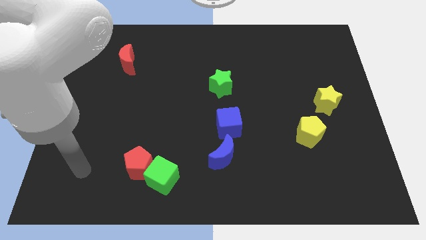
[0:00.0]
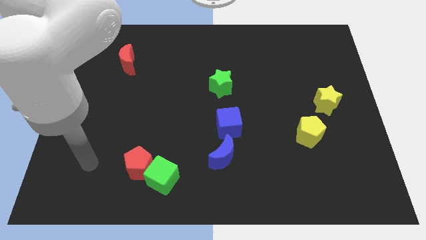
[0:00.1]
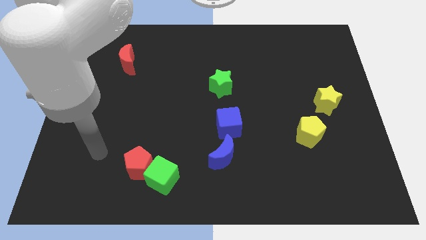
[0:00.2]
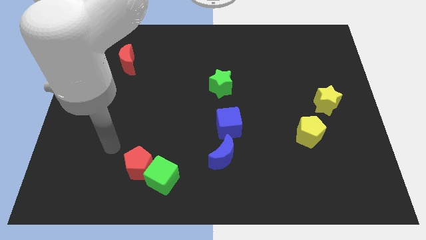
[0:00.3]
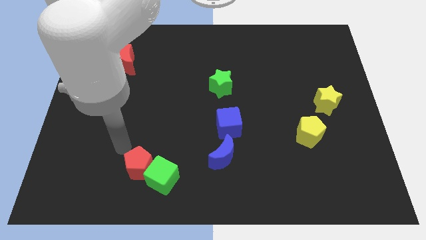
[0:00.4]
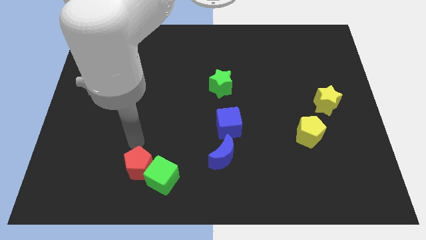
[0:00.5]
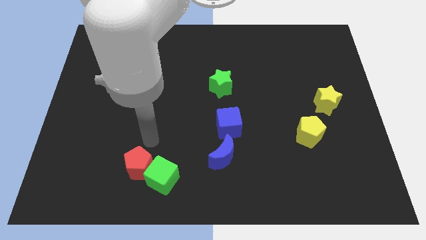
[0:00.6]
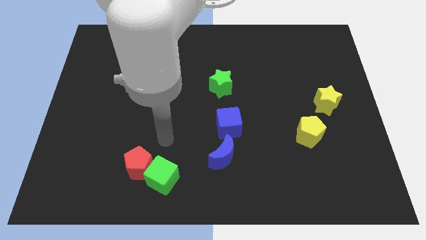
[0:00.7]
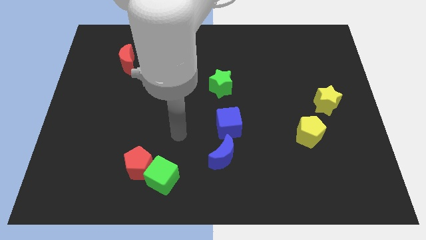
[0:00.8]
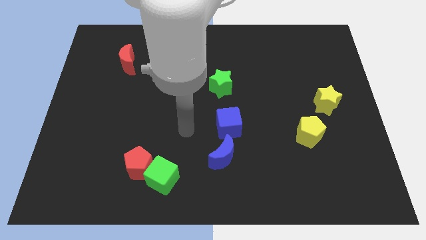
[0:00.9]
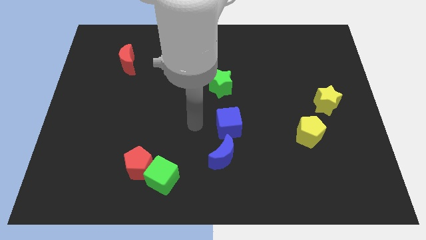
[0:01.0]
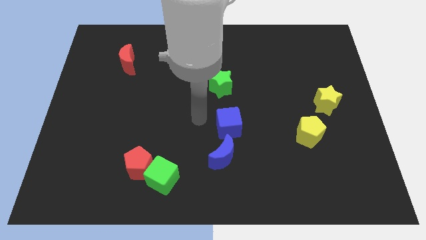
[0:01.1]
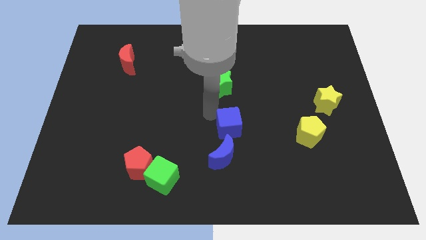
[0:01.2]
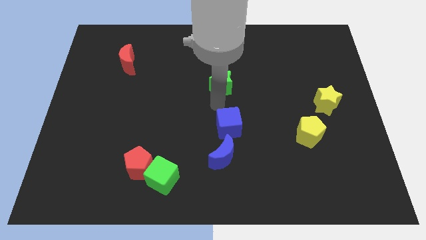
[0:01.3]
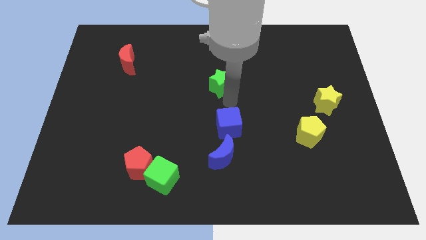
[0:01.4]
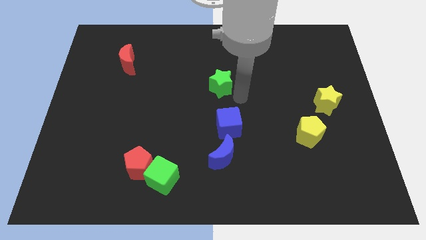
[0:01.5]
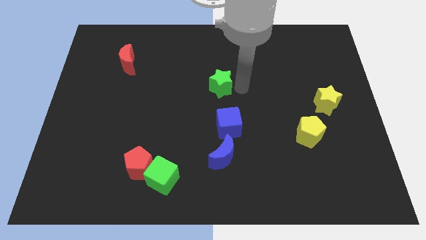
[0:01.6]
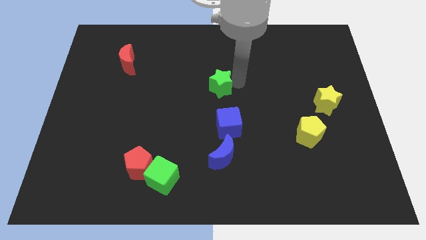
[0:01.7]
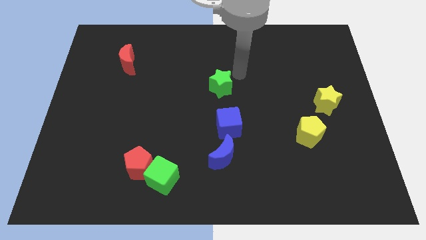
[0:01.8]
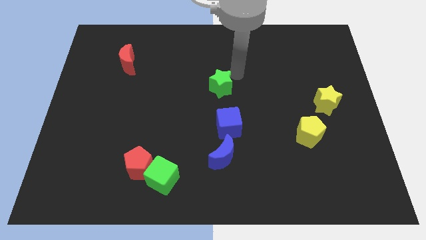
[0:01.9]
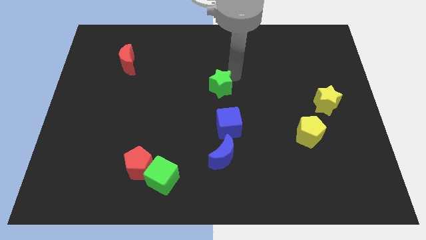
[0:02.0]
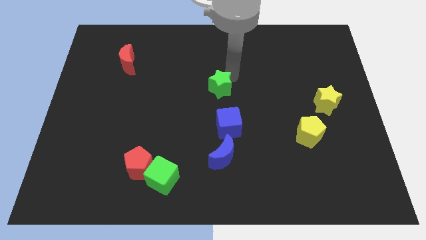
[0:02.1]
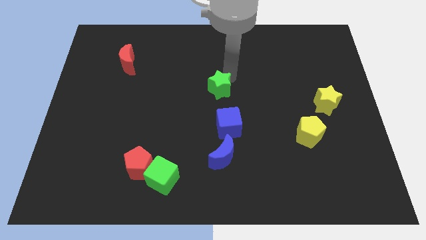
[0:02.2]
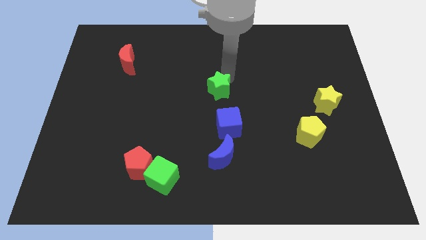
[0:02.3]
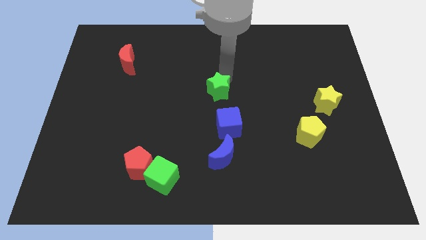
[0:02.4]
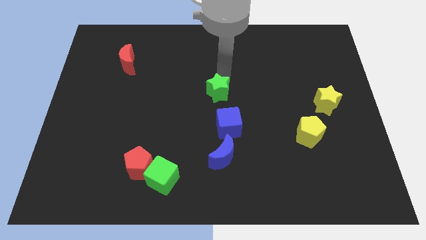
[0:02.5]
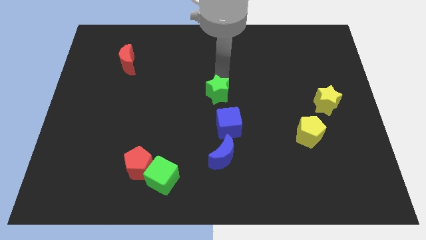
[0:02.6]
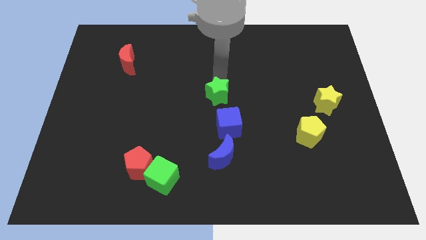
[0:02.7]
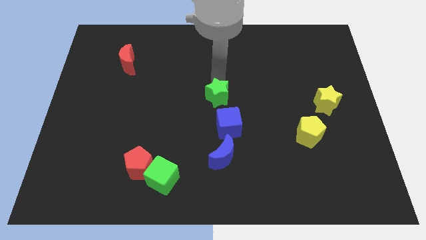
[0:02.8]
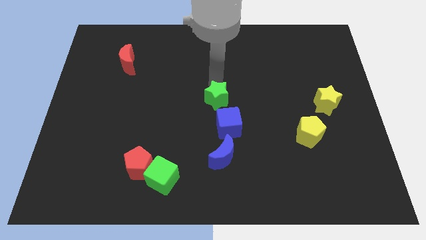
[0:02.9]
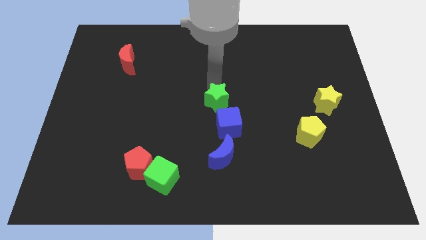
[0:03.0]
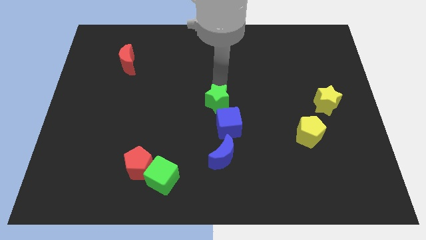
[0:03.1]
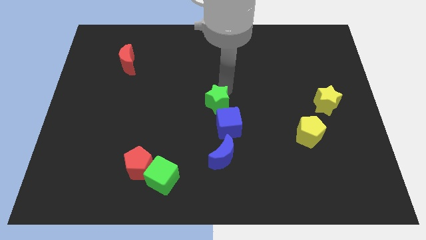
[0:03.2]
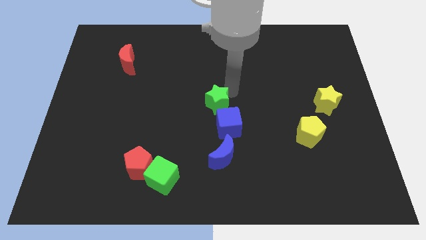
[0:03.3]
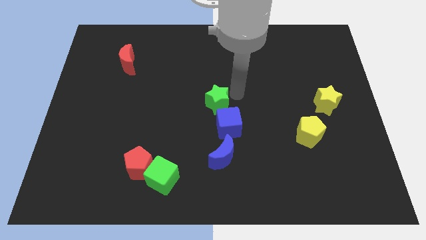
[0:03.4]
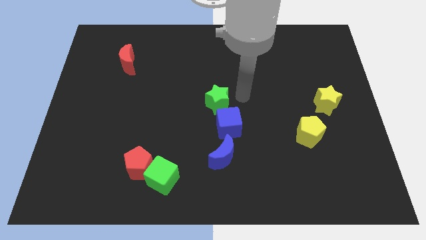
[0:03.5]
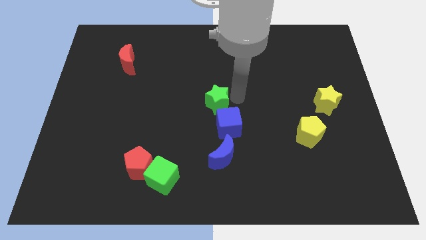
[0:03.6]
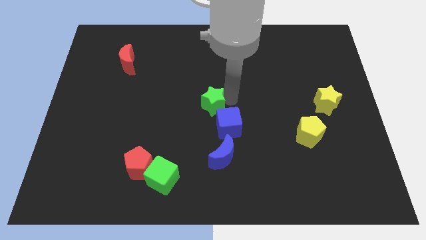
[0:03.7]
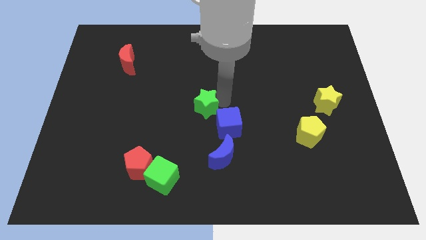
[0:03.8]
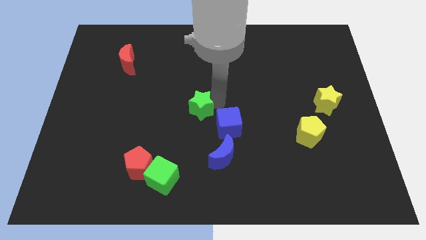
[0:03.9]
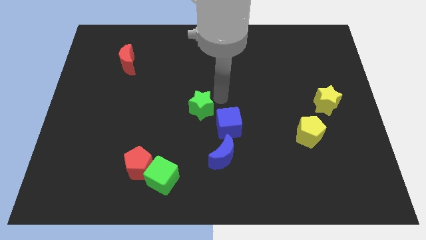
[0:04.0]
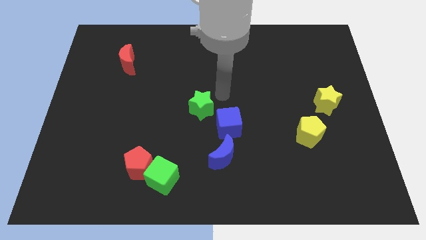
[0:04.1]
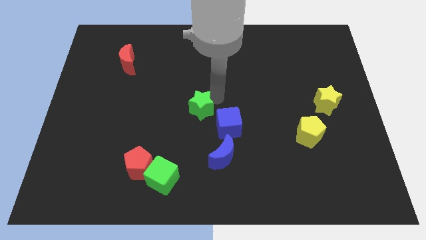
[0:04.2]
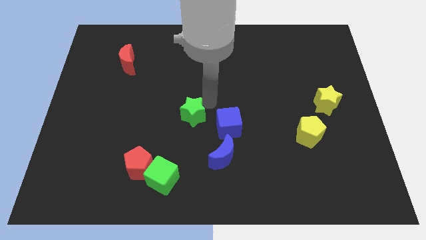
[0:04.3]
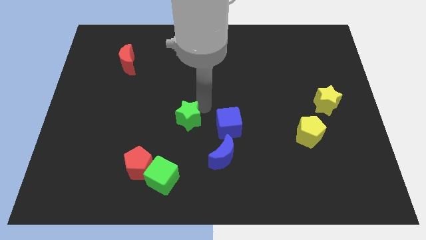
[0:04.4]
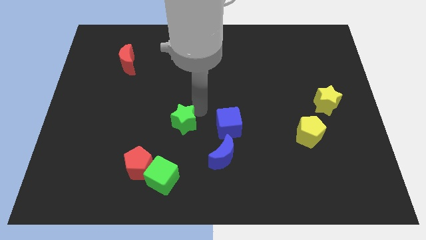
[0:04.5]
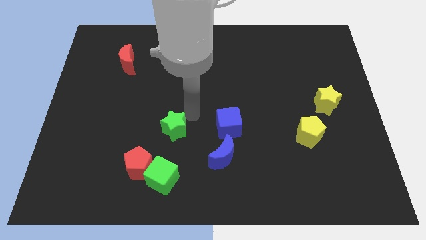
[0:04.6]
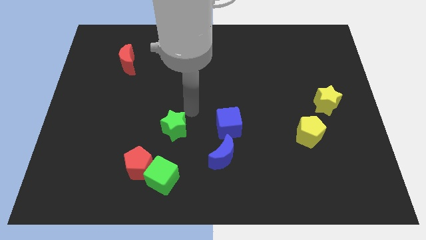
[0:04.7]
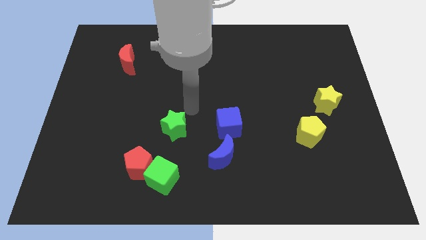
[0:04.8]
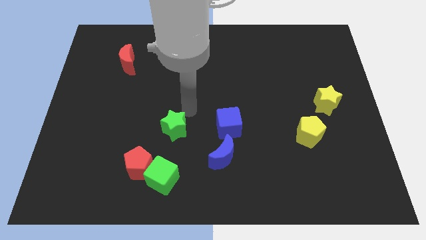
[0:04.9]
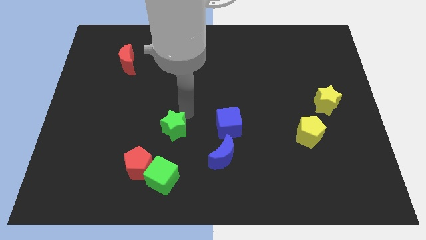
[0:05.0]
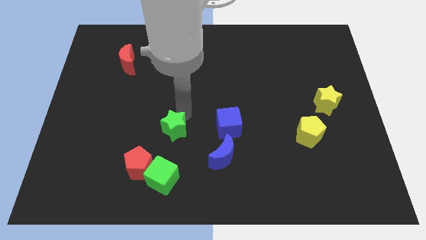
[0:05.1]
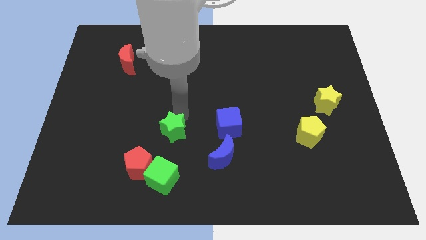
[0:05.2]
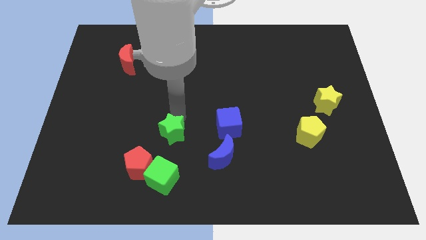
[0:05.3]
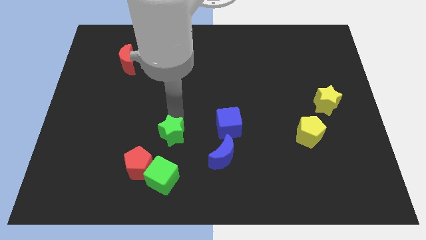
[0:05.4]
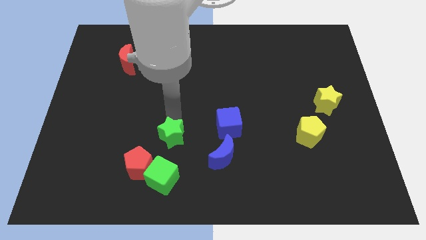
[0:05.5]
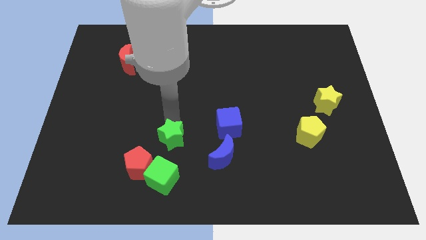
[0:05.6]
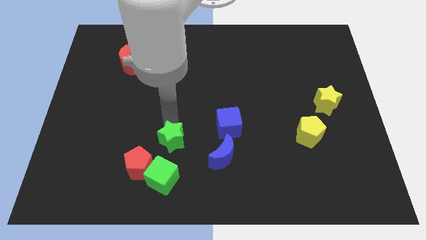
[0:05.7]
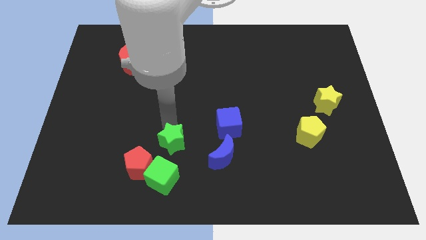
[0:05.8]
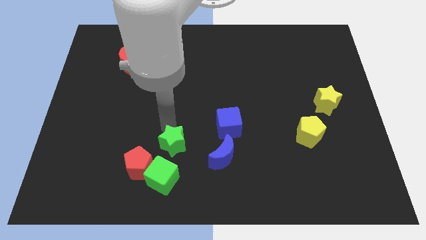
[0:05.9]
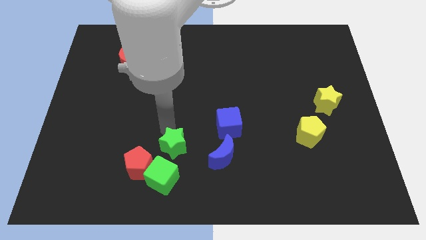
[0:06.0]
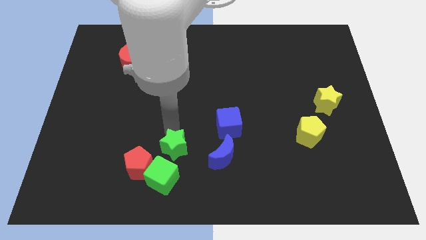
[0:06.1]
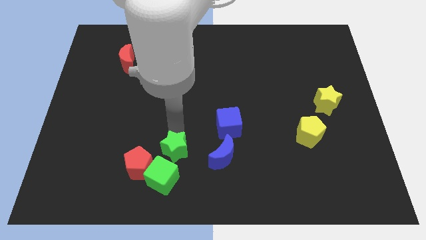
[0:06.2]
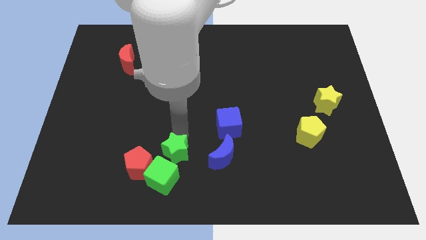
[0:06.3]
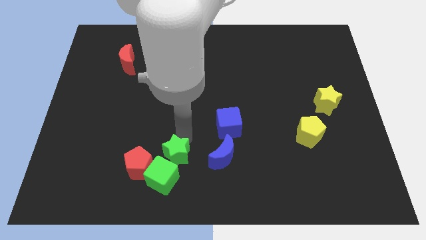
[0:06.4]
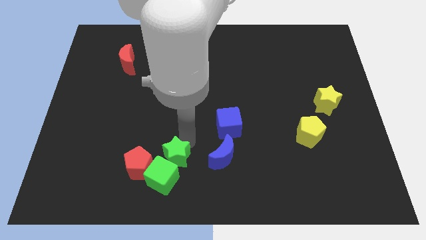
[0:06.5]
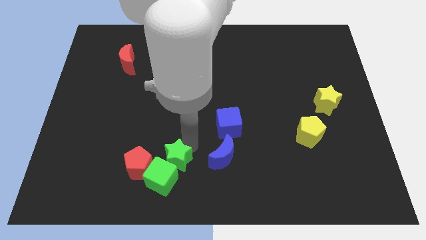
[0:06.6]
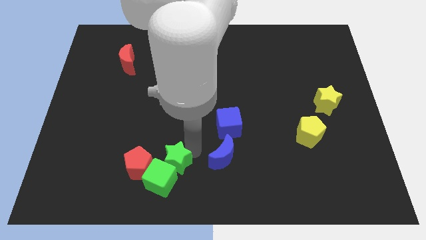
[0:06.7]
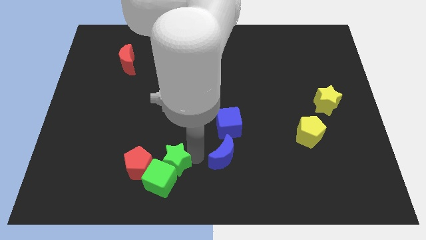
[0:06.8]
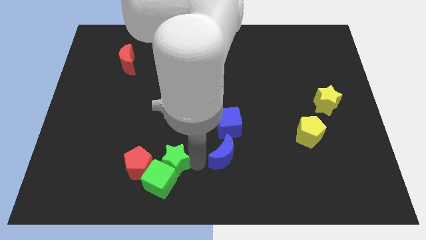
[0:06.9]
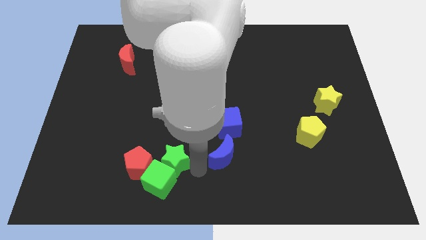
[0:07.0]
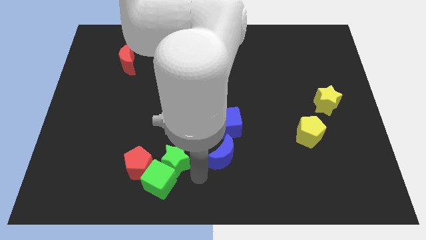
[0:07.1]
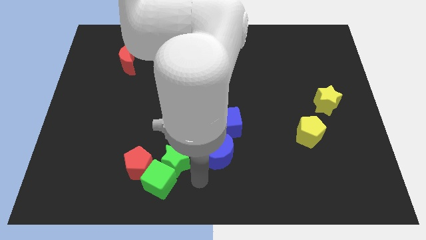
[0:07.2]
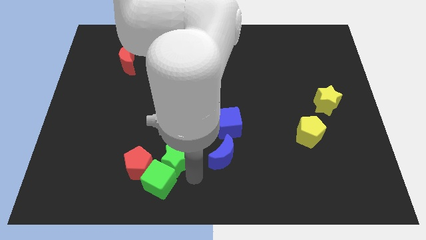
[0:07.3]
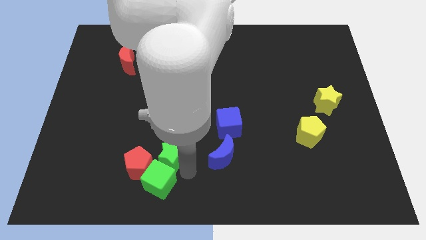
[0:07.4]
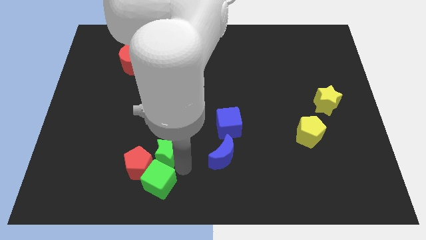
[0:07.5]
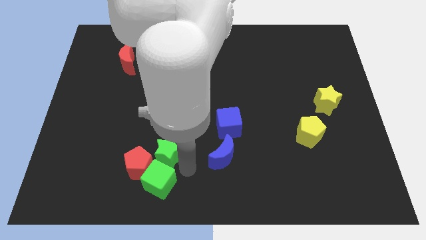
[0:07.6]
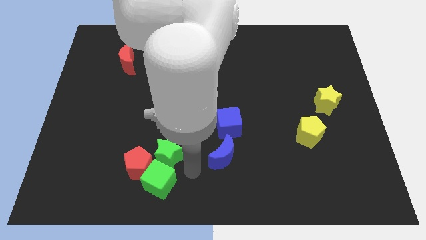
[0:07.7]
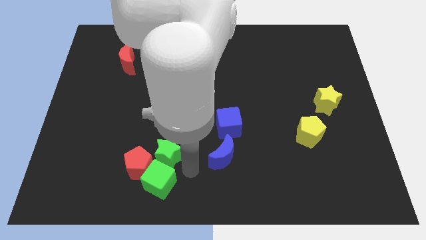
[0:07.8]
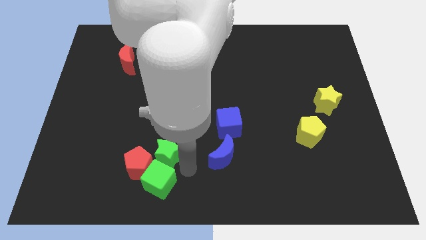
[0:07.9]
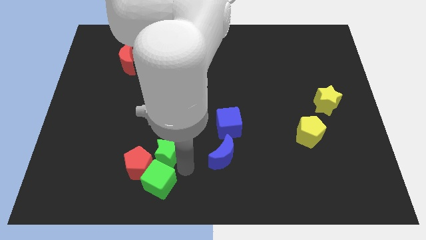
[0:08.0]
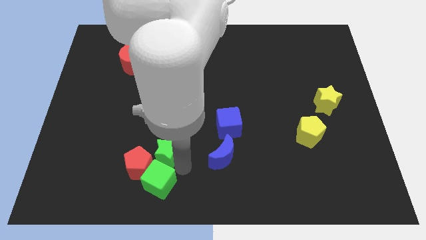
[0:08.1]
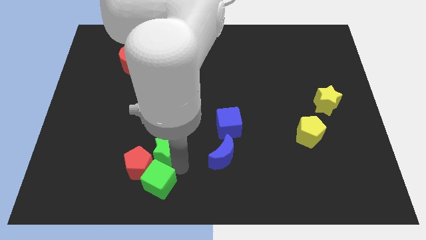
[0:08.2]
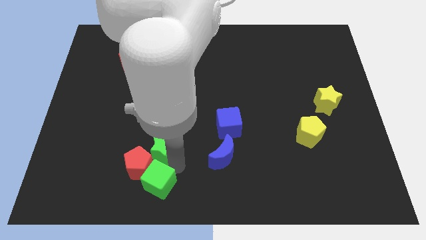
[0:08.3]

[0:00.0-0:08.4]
move the green star next to the red pentagon
